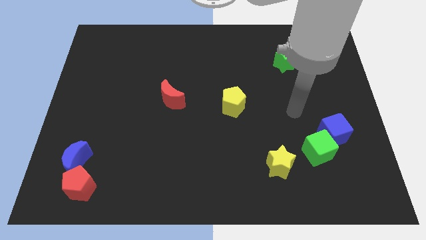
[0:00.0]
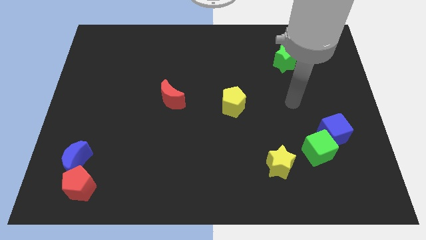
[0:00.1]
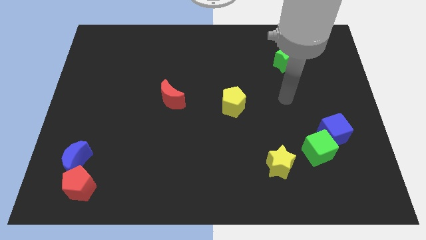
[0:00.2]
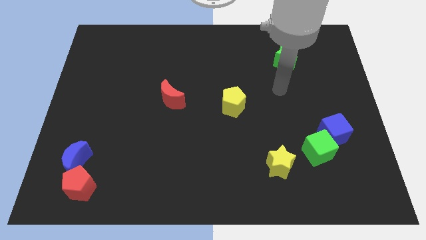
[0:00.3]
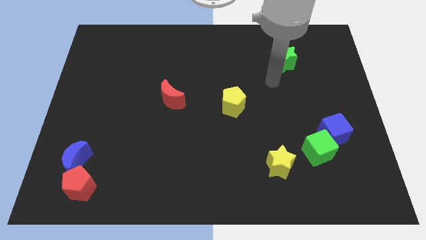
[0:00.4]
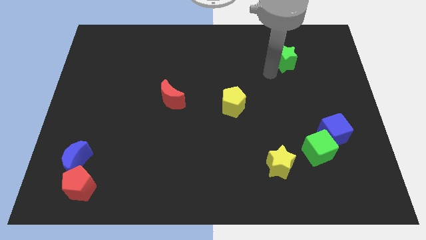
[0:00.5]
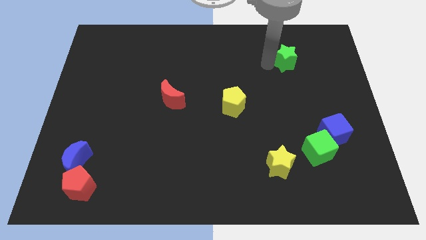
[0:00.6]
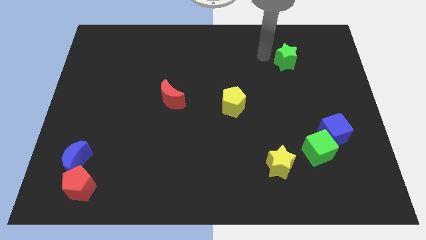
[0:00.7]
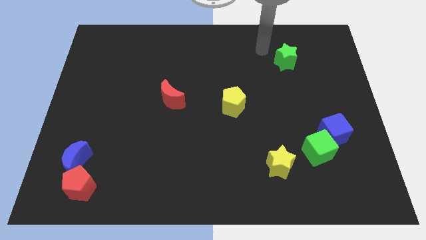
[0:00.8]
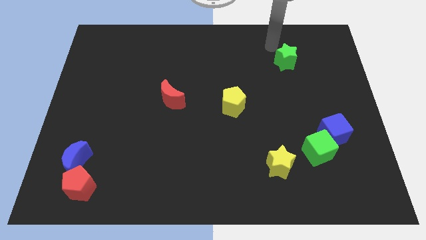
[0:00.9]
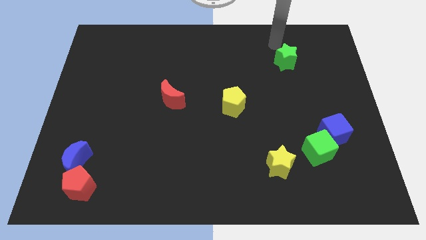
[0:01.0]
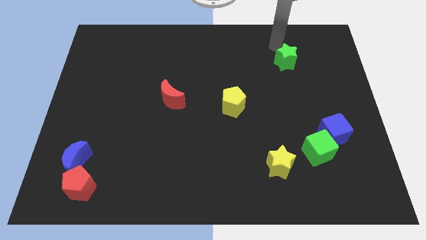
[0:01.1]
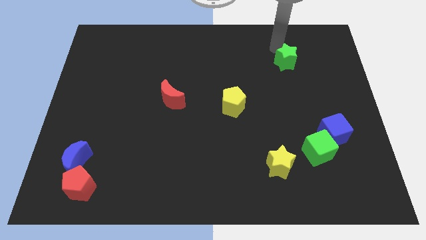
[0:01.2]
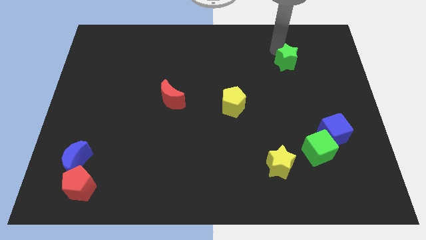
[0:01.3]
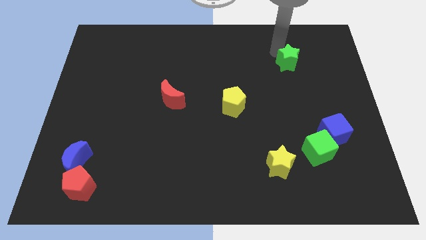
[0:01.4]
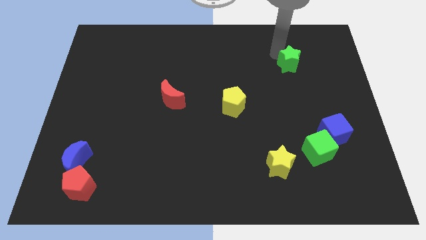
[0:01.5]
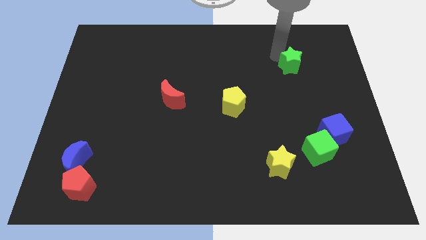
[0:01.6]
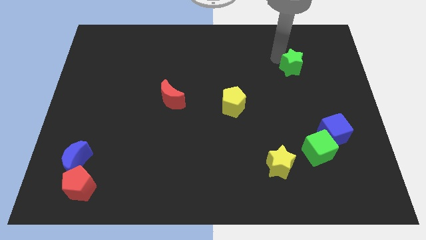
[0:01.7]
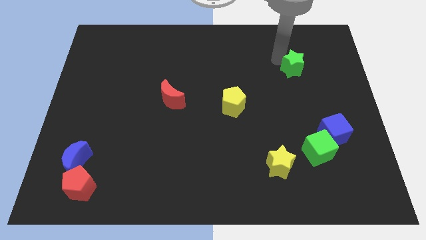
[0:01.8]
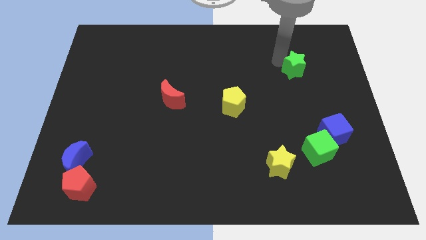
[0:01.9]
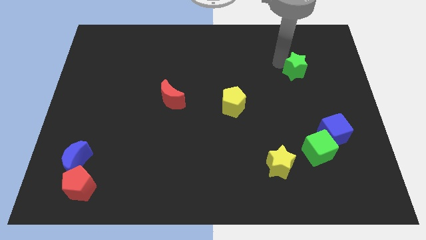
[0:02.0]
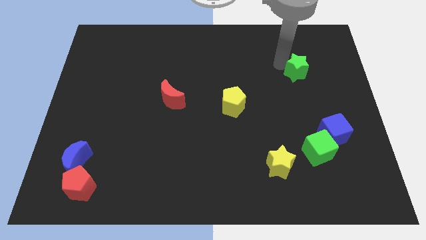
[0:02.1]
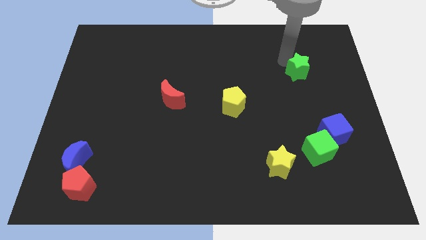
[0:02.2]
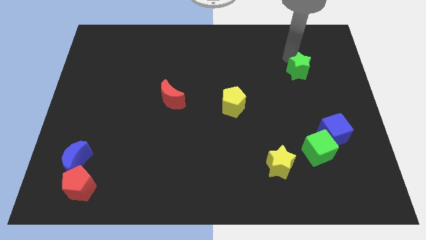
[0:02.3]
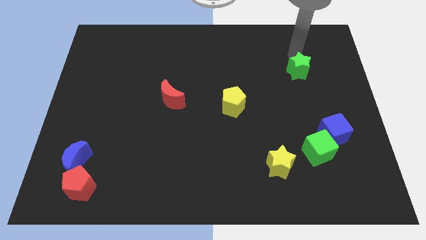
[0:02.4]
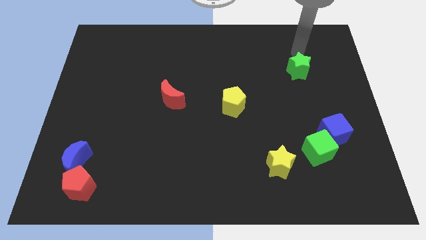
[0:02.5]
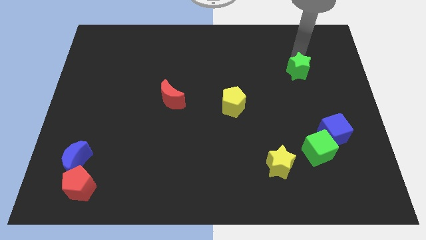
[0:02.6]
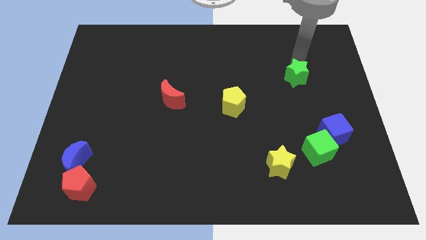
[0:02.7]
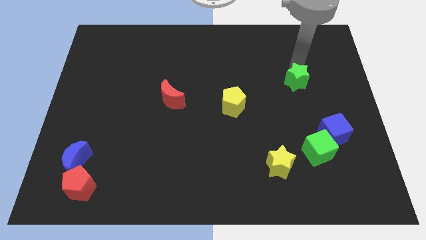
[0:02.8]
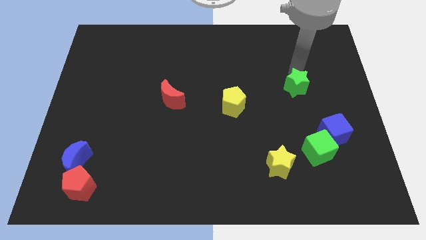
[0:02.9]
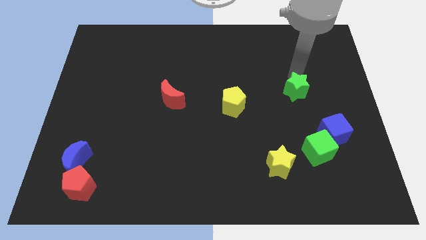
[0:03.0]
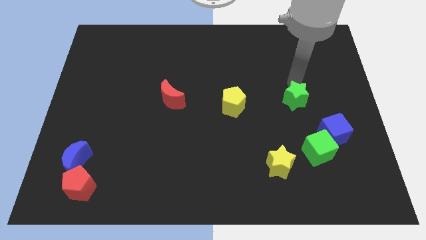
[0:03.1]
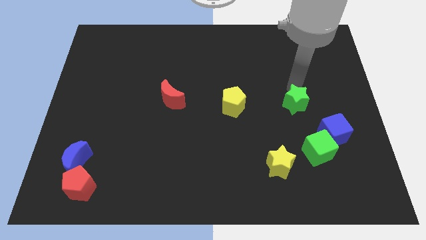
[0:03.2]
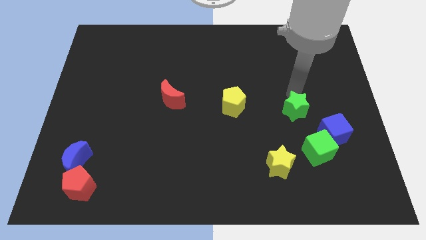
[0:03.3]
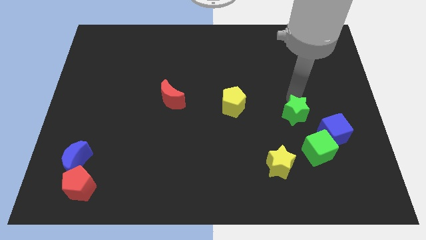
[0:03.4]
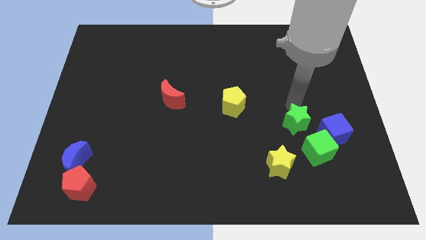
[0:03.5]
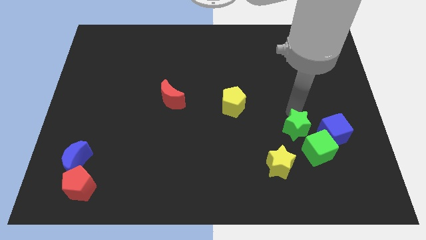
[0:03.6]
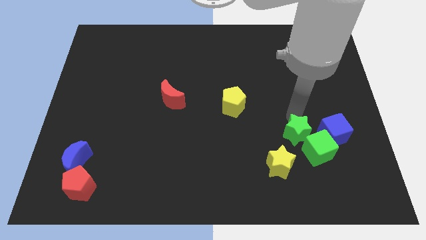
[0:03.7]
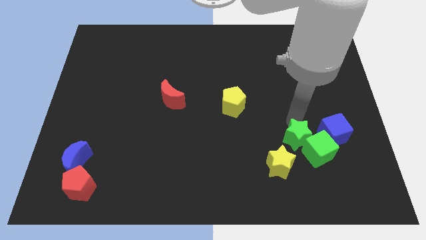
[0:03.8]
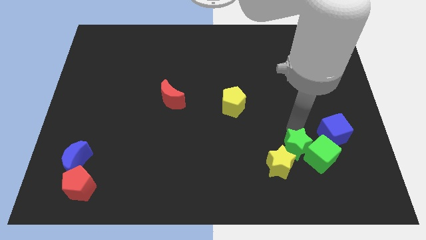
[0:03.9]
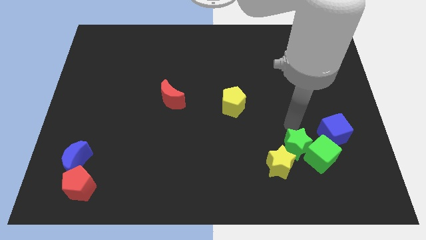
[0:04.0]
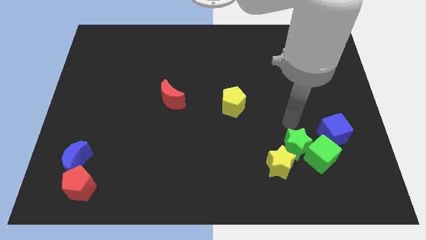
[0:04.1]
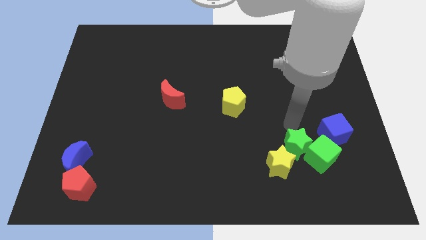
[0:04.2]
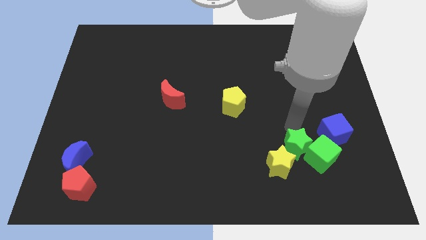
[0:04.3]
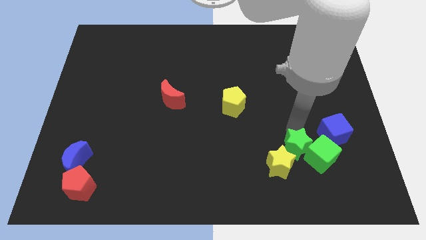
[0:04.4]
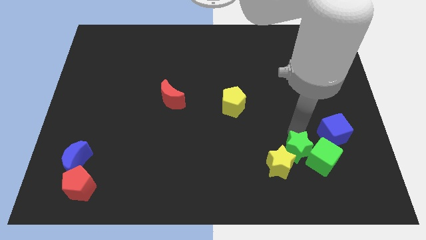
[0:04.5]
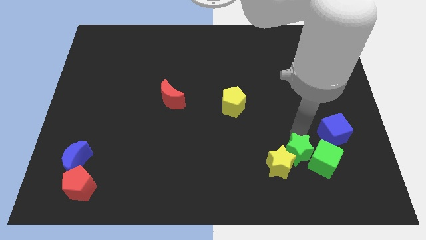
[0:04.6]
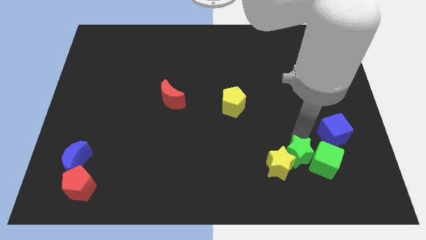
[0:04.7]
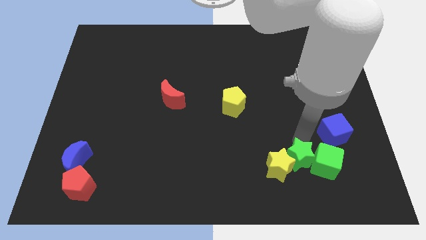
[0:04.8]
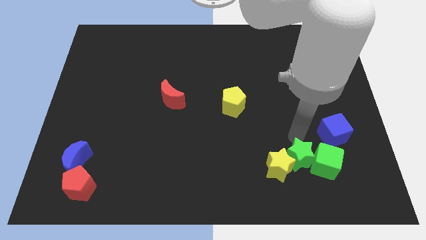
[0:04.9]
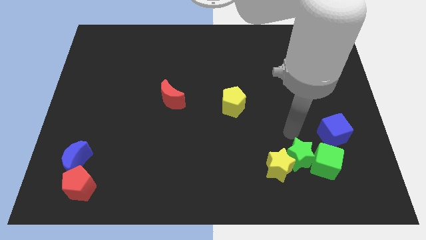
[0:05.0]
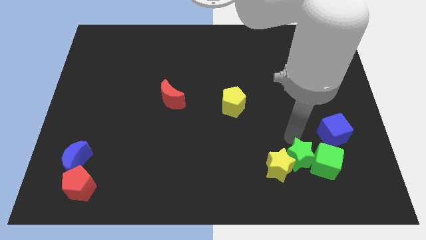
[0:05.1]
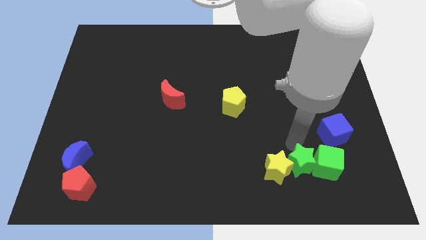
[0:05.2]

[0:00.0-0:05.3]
move the green star to the bottom left of the green cube

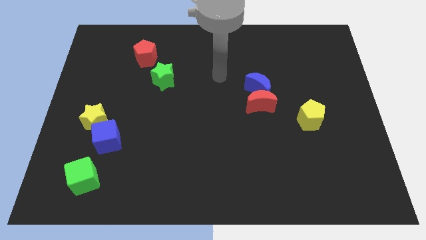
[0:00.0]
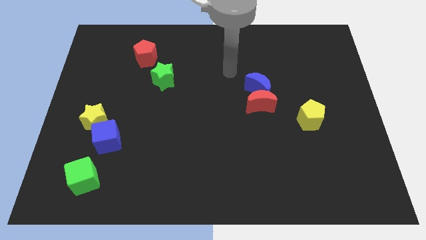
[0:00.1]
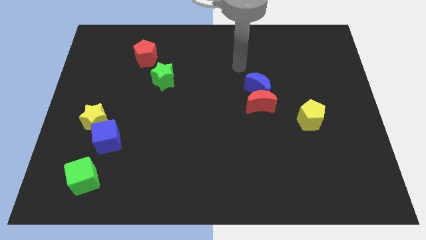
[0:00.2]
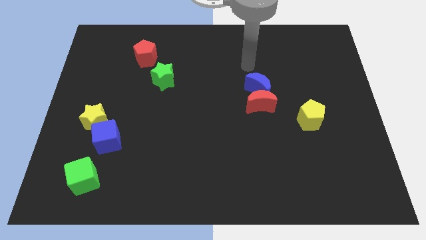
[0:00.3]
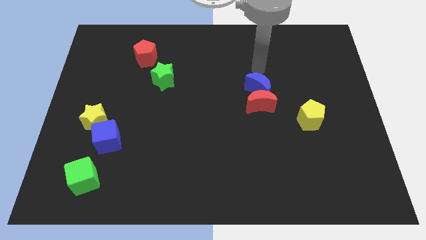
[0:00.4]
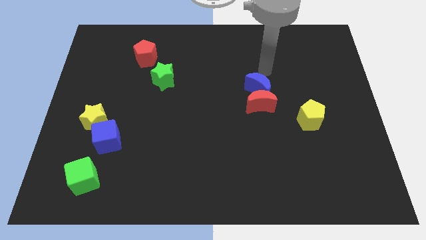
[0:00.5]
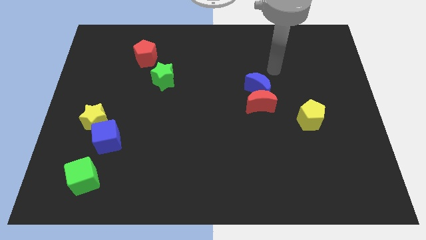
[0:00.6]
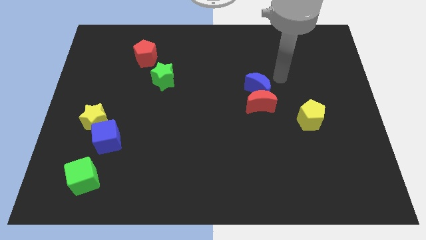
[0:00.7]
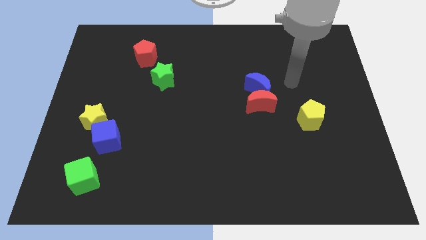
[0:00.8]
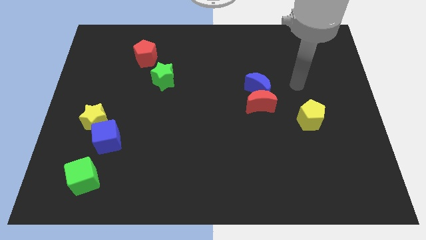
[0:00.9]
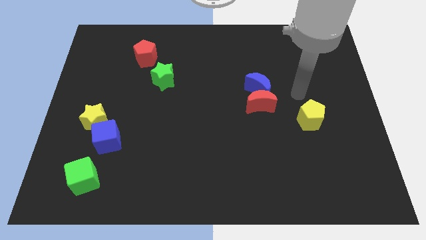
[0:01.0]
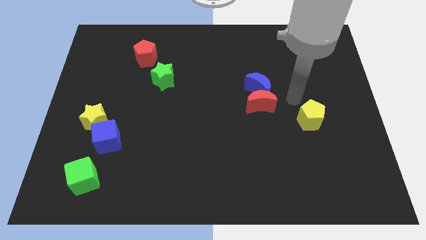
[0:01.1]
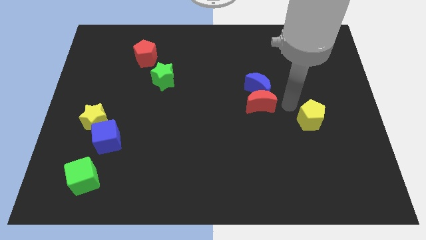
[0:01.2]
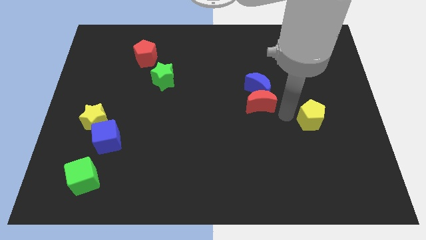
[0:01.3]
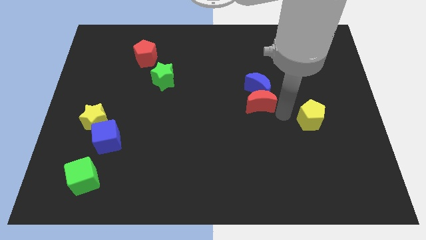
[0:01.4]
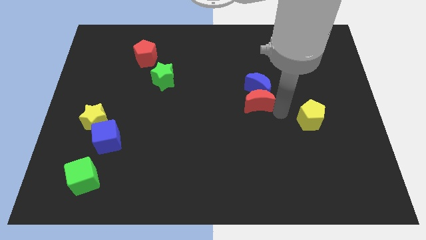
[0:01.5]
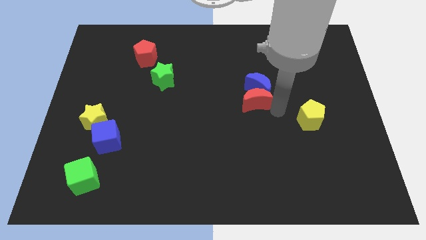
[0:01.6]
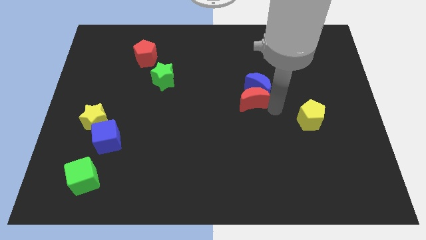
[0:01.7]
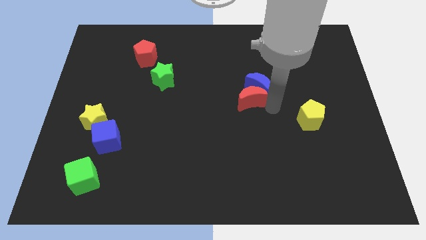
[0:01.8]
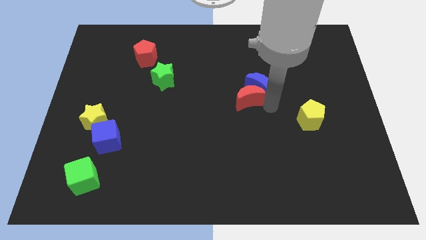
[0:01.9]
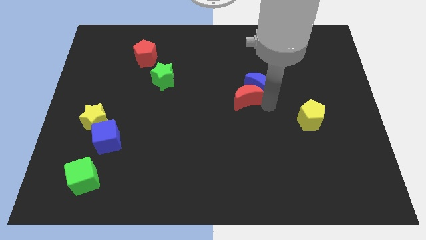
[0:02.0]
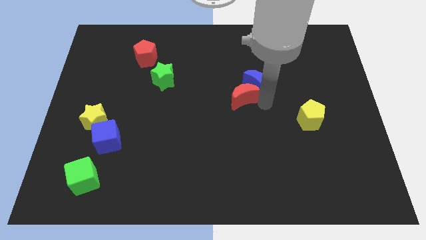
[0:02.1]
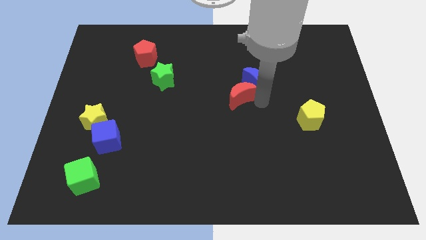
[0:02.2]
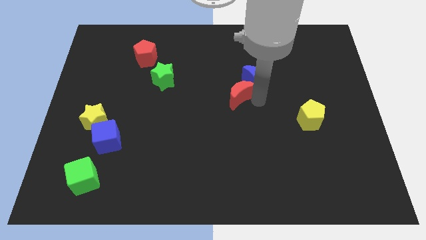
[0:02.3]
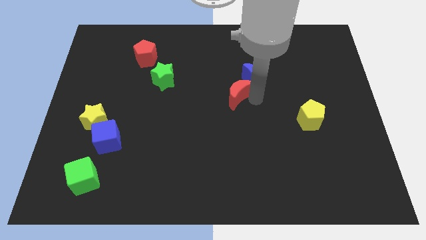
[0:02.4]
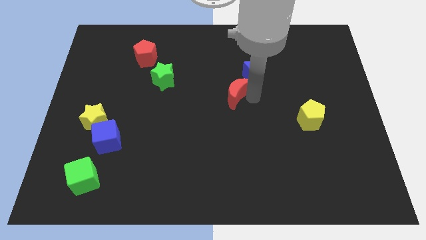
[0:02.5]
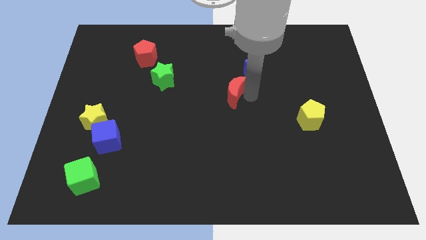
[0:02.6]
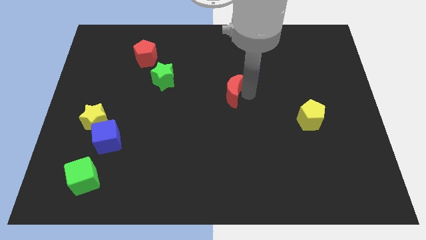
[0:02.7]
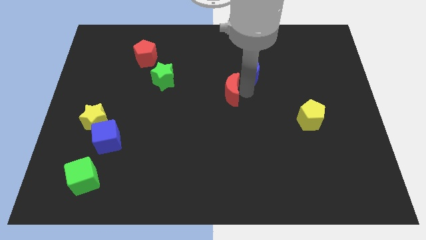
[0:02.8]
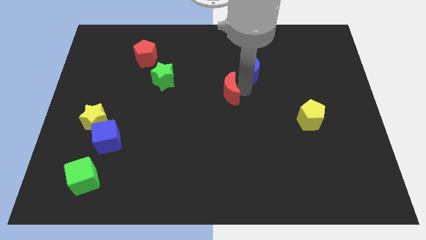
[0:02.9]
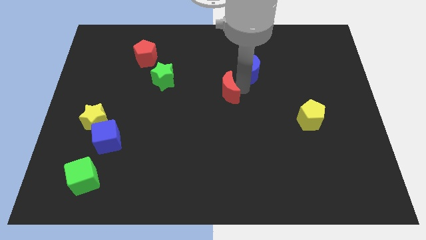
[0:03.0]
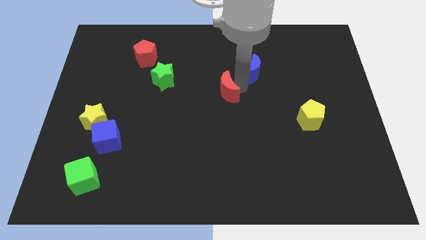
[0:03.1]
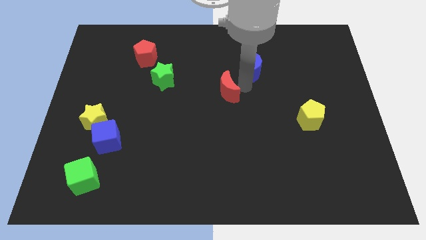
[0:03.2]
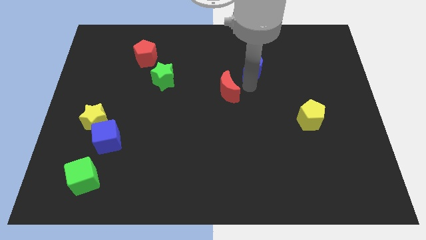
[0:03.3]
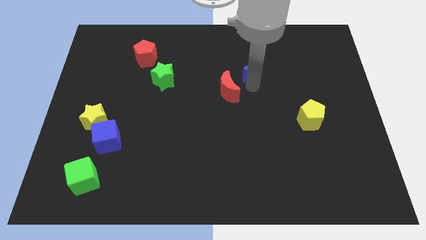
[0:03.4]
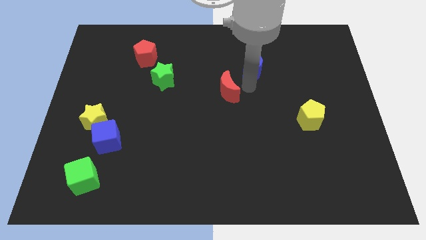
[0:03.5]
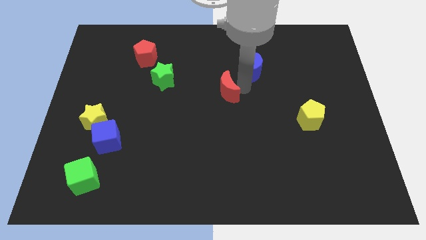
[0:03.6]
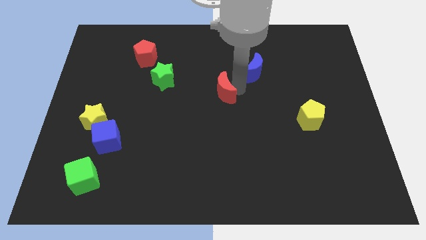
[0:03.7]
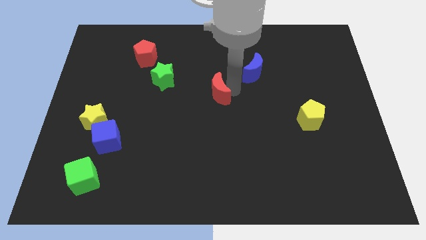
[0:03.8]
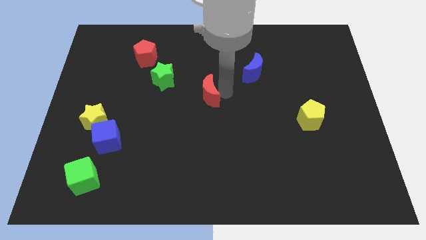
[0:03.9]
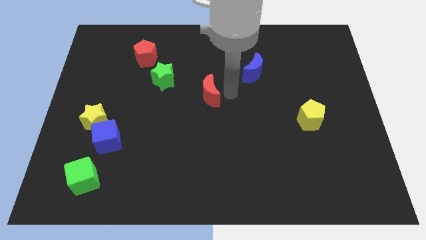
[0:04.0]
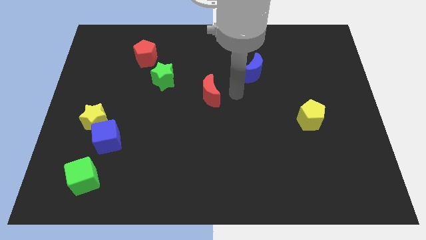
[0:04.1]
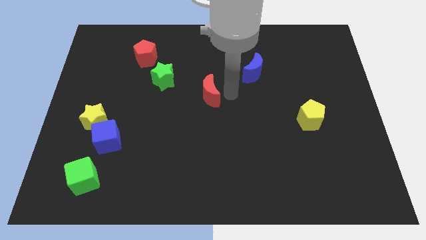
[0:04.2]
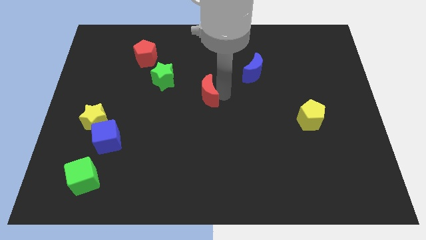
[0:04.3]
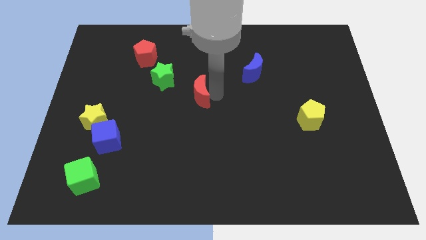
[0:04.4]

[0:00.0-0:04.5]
move the red moon to the bottom right side of the green star
